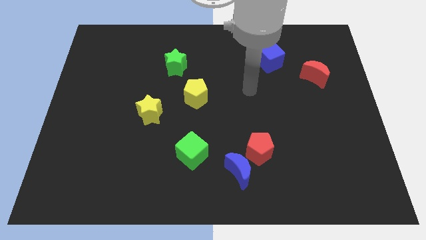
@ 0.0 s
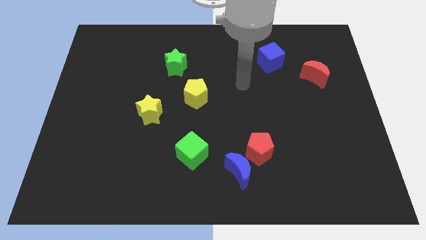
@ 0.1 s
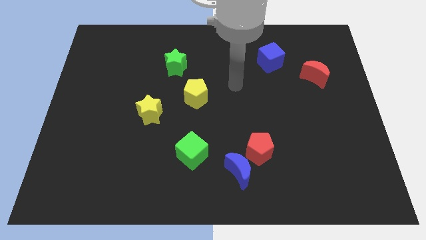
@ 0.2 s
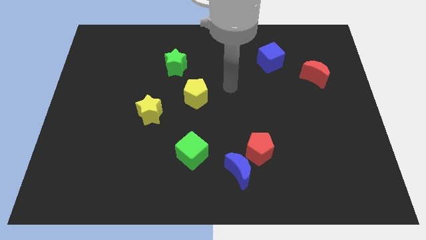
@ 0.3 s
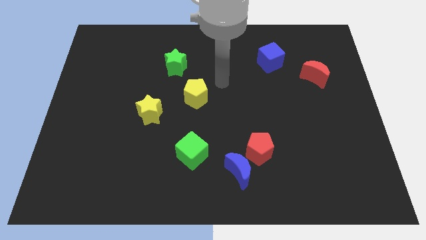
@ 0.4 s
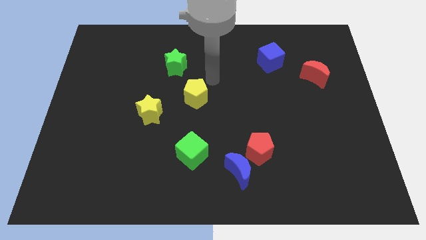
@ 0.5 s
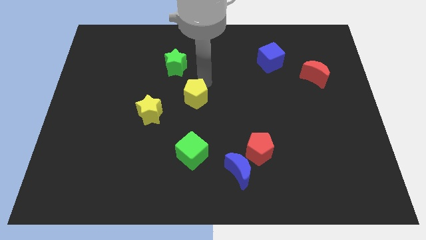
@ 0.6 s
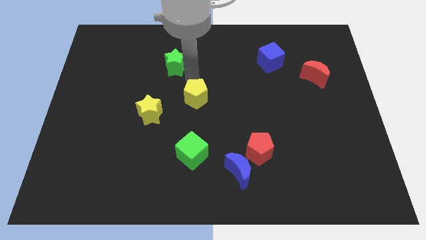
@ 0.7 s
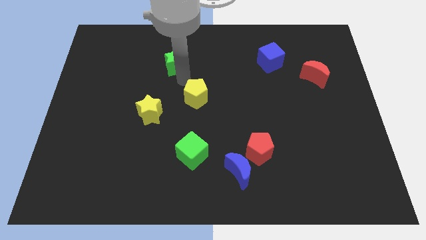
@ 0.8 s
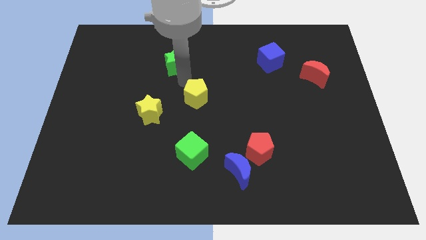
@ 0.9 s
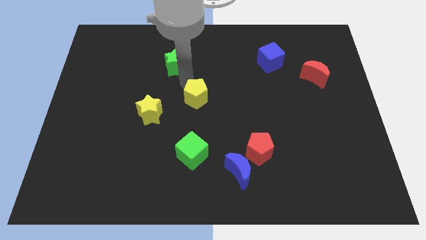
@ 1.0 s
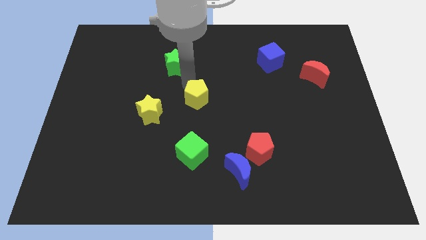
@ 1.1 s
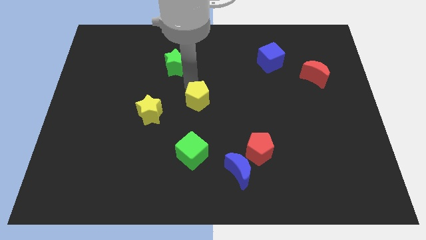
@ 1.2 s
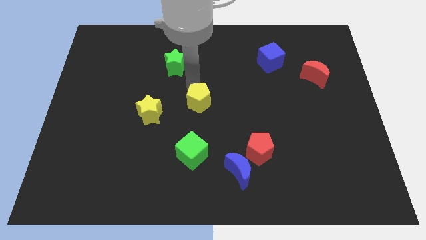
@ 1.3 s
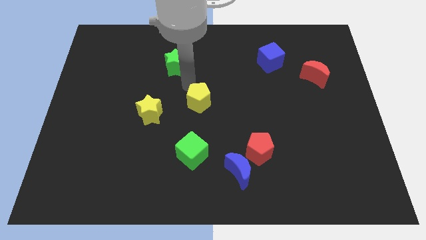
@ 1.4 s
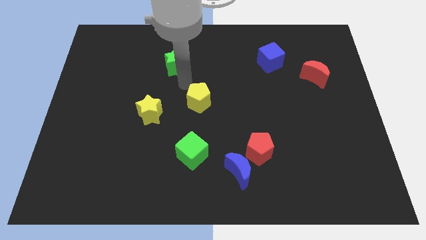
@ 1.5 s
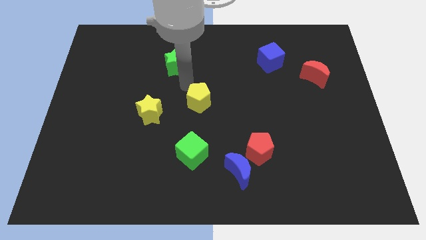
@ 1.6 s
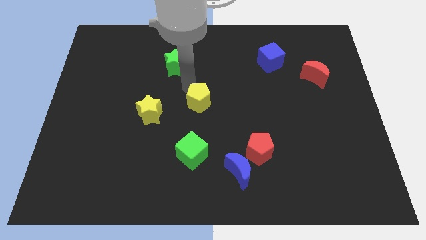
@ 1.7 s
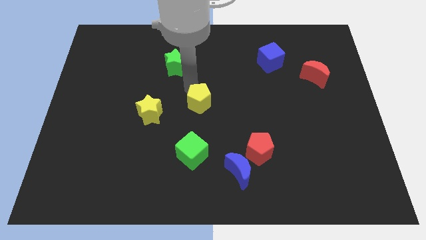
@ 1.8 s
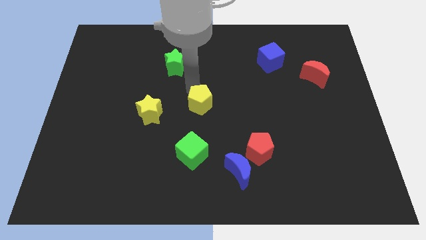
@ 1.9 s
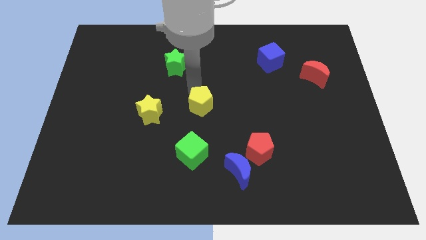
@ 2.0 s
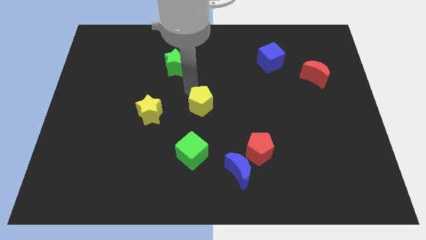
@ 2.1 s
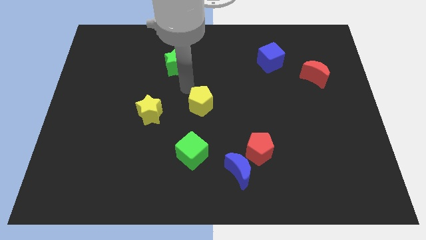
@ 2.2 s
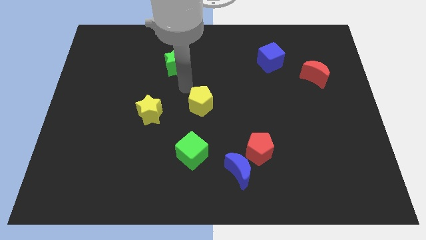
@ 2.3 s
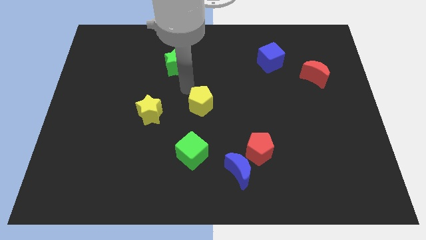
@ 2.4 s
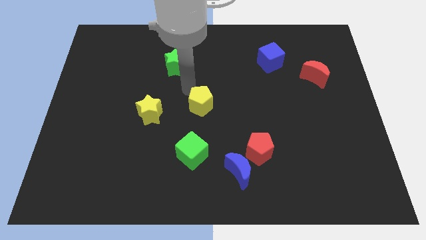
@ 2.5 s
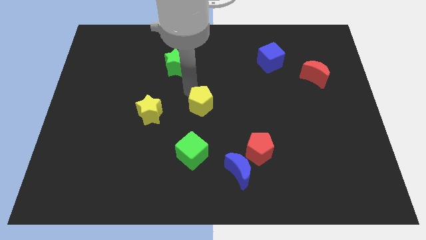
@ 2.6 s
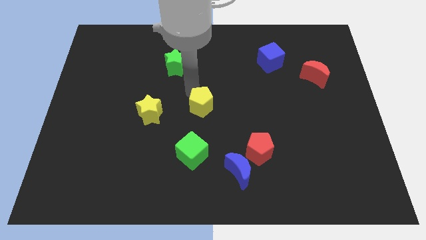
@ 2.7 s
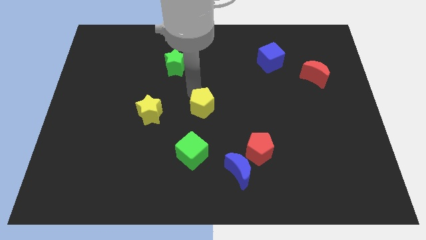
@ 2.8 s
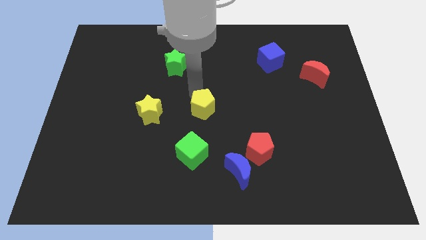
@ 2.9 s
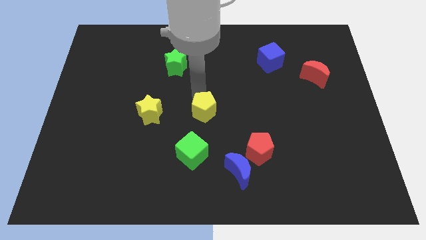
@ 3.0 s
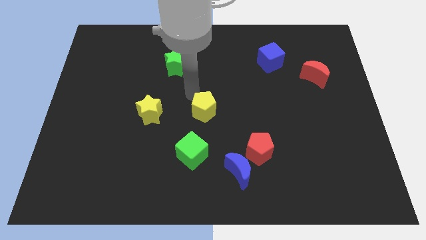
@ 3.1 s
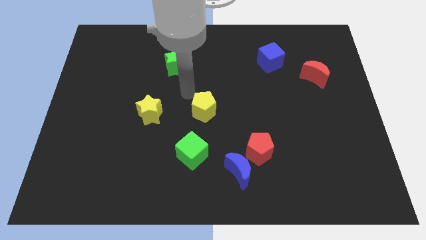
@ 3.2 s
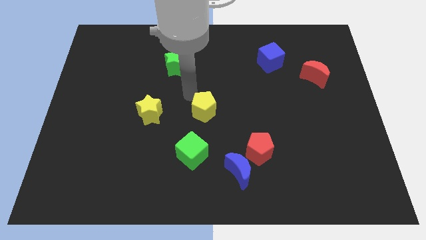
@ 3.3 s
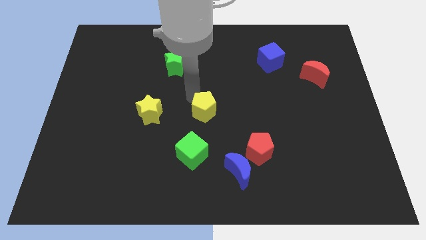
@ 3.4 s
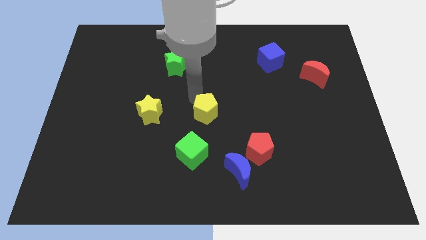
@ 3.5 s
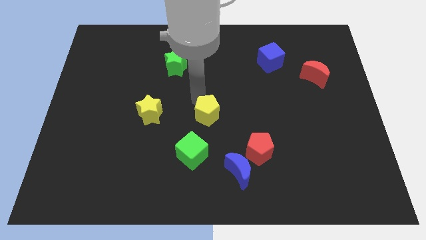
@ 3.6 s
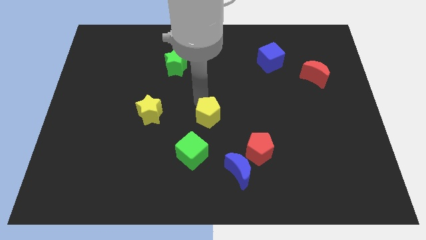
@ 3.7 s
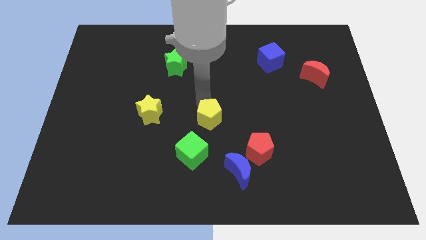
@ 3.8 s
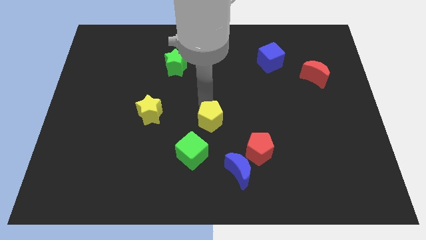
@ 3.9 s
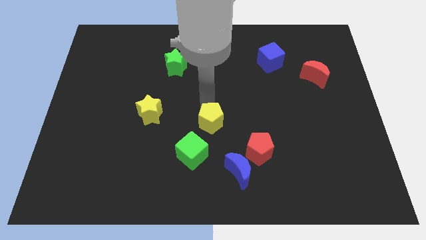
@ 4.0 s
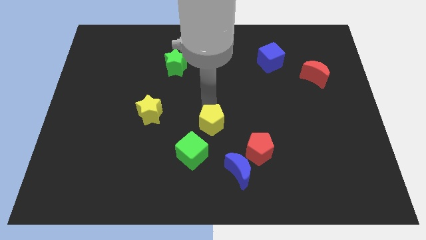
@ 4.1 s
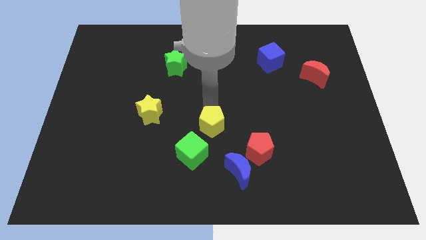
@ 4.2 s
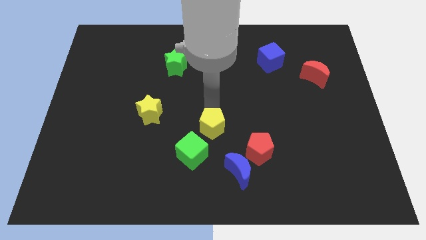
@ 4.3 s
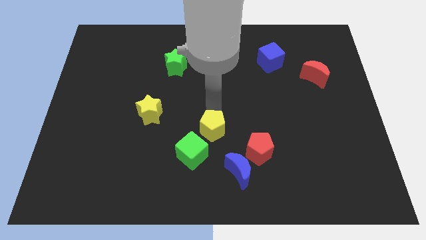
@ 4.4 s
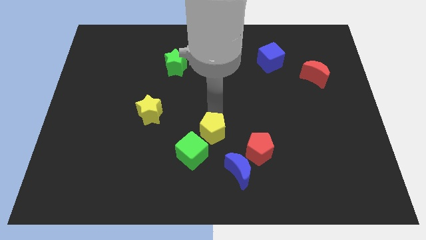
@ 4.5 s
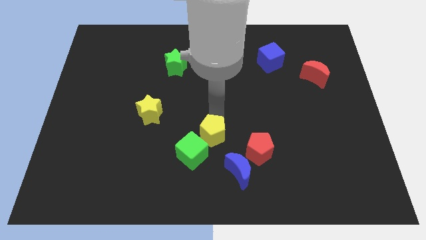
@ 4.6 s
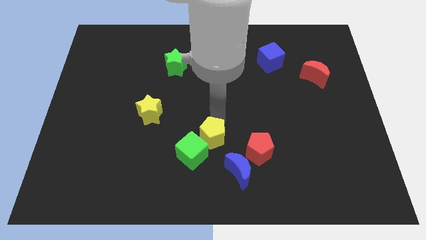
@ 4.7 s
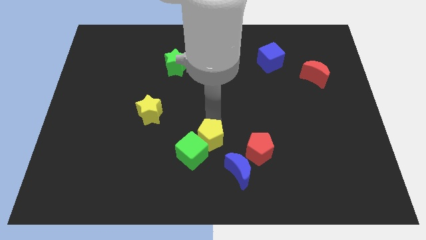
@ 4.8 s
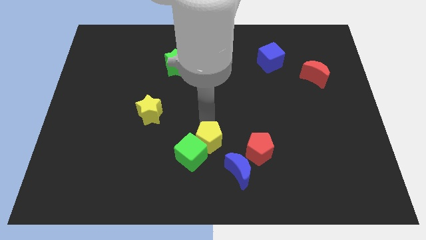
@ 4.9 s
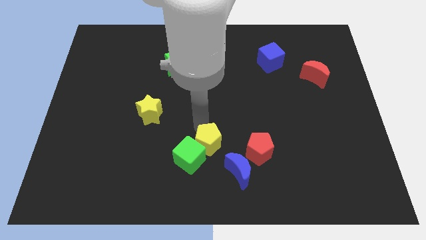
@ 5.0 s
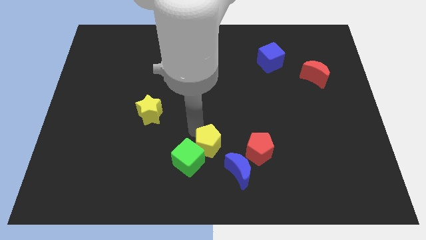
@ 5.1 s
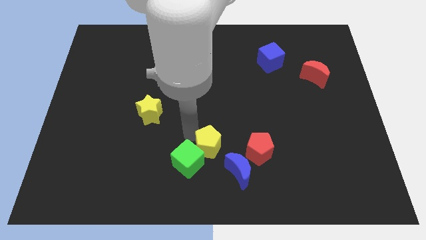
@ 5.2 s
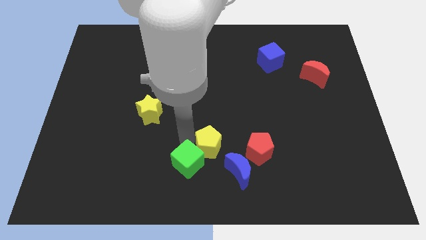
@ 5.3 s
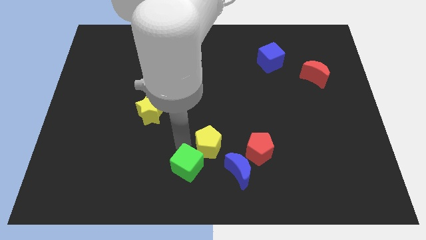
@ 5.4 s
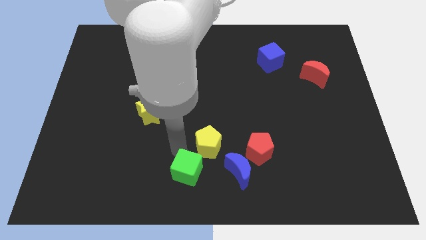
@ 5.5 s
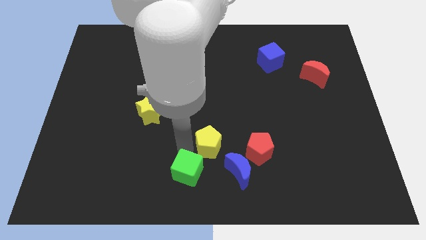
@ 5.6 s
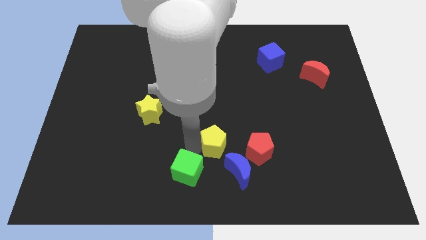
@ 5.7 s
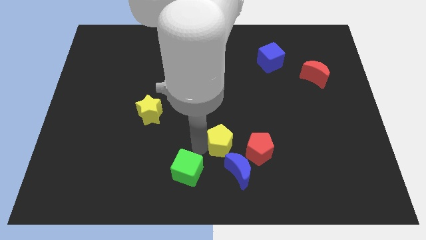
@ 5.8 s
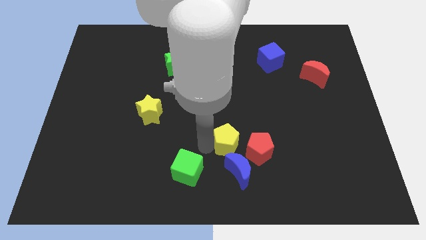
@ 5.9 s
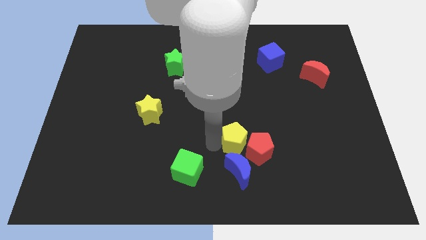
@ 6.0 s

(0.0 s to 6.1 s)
put the yellow pentagon close to the red pentagon

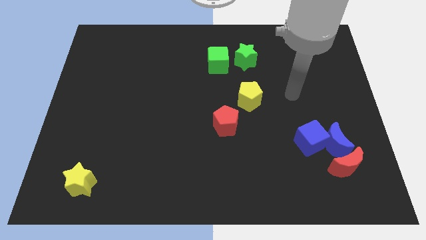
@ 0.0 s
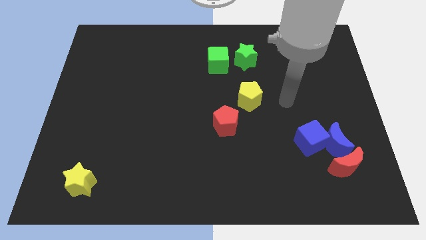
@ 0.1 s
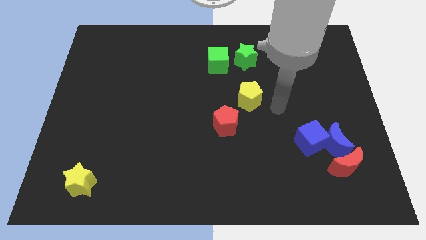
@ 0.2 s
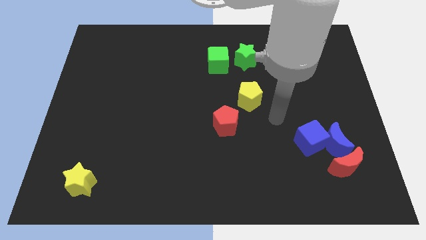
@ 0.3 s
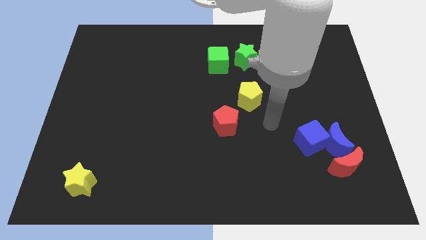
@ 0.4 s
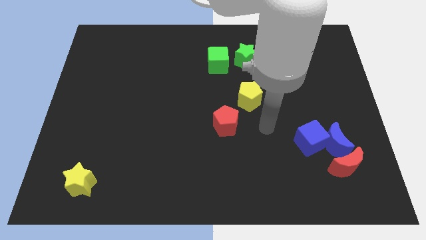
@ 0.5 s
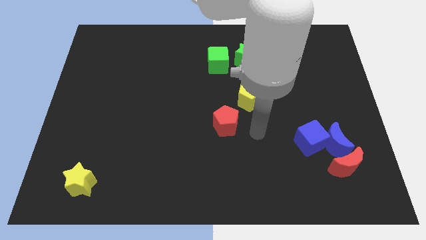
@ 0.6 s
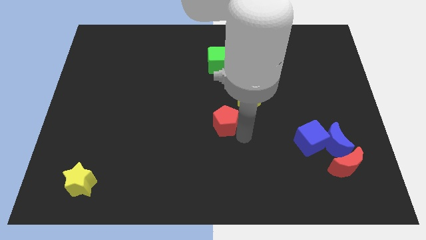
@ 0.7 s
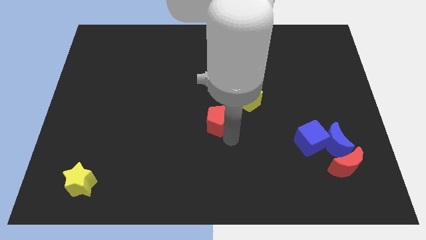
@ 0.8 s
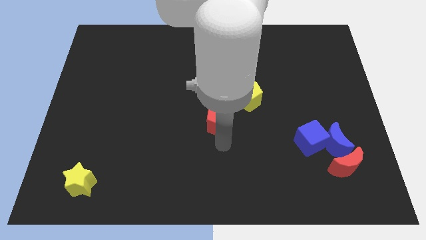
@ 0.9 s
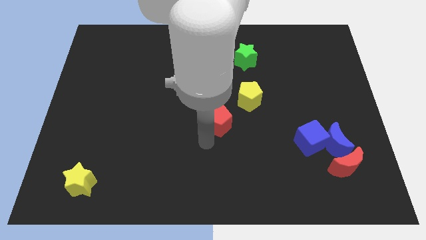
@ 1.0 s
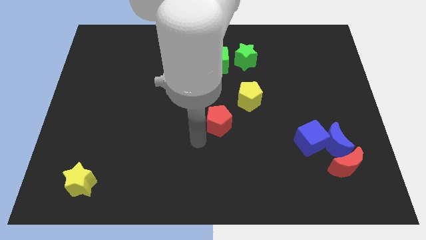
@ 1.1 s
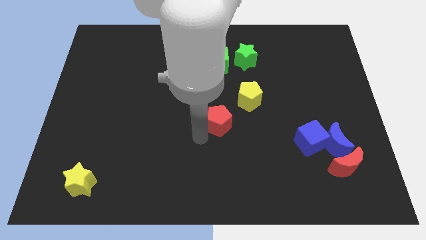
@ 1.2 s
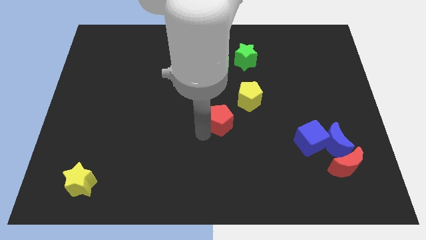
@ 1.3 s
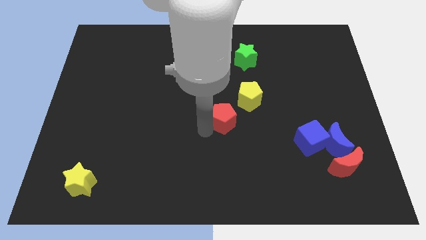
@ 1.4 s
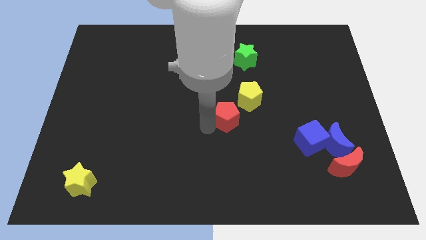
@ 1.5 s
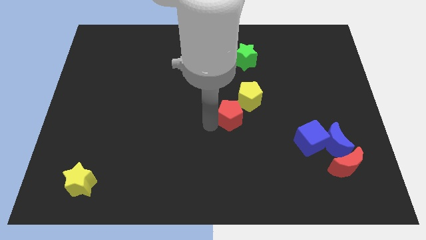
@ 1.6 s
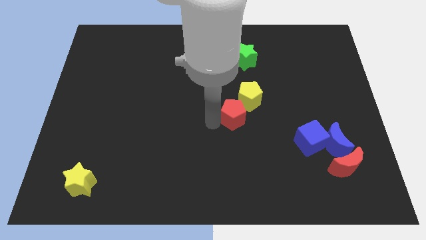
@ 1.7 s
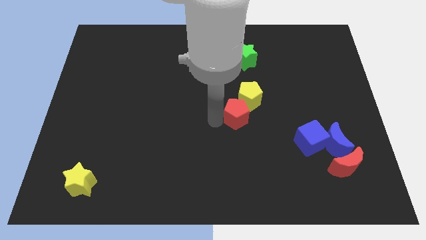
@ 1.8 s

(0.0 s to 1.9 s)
slide the red pentagon close to the yellow pentagon

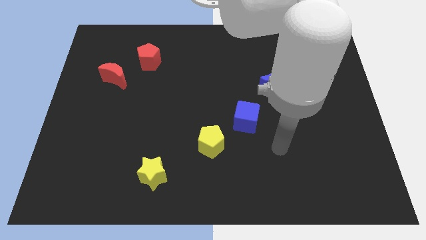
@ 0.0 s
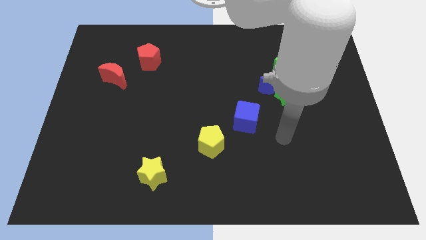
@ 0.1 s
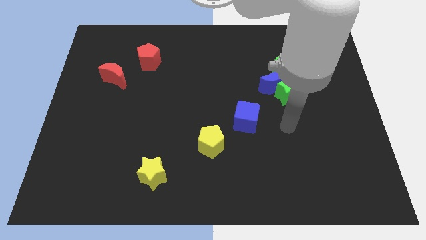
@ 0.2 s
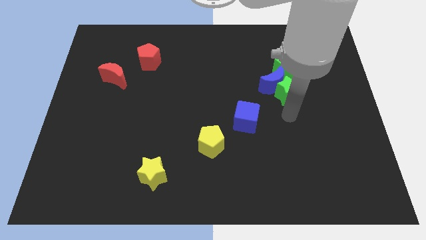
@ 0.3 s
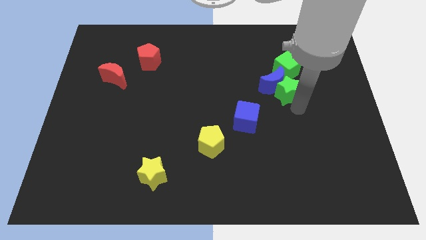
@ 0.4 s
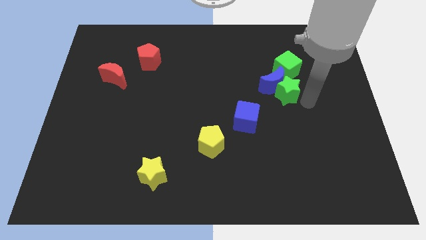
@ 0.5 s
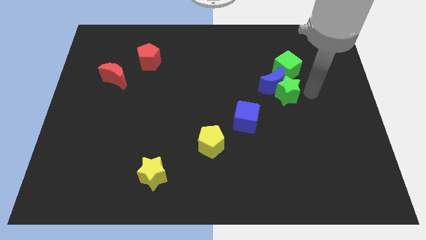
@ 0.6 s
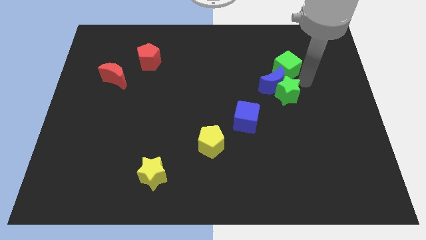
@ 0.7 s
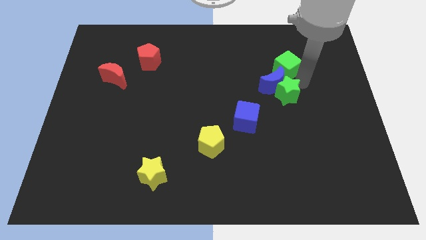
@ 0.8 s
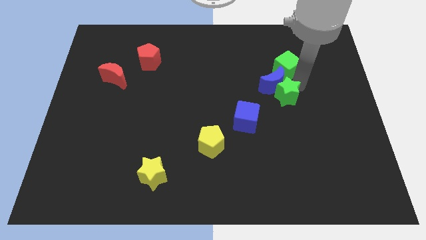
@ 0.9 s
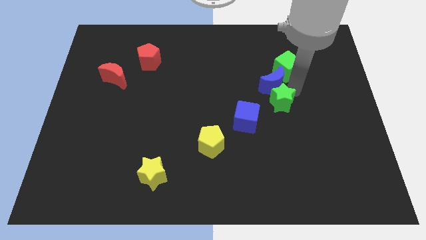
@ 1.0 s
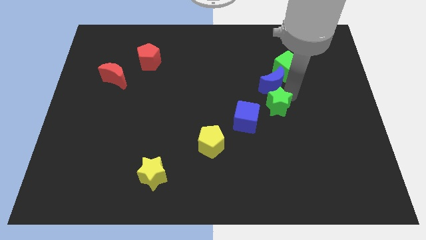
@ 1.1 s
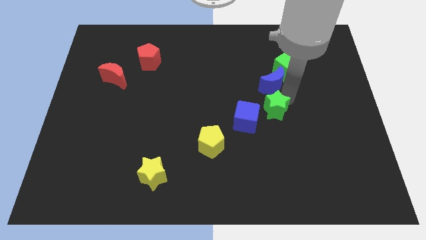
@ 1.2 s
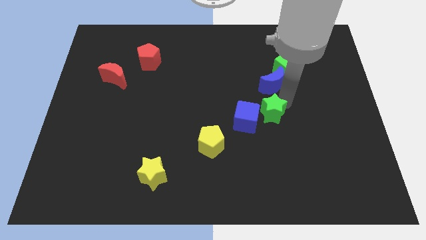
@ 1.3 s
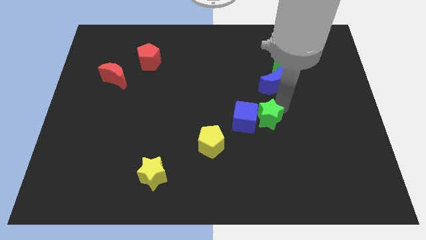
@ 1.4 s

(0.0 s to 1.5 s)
push the green star to the blue cube
